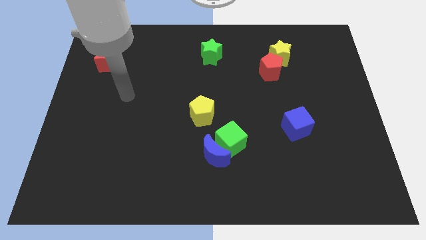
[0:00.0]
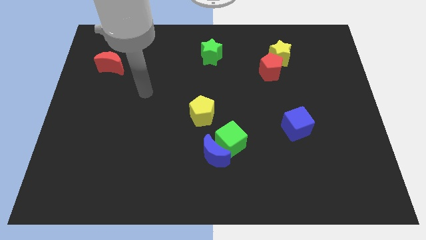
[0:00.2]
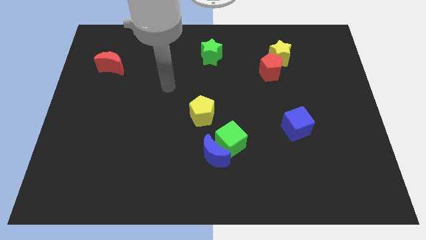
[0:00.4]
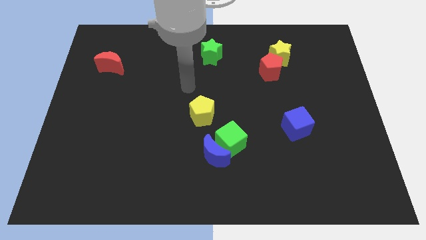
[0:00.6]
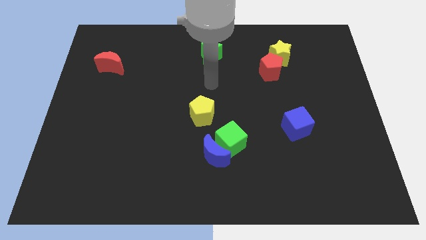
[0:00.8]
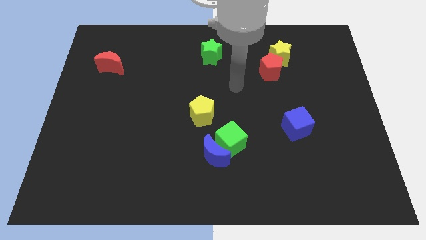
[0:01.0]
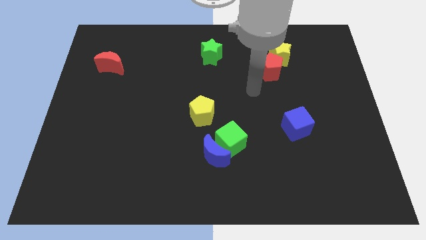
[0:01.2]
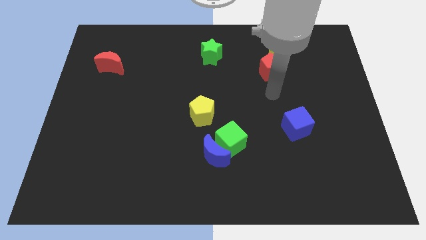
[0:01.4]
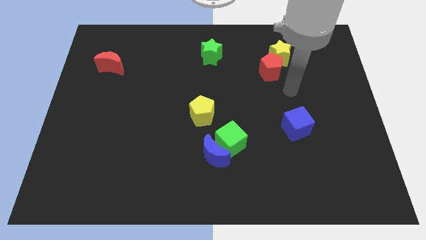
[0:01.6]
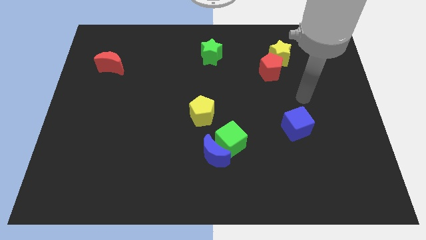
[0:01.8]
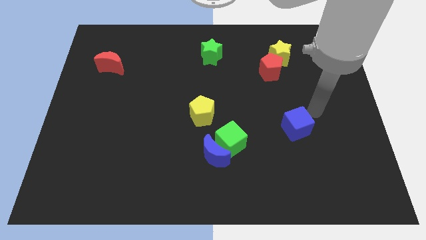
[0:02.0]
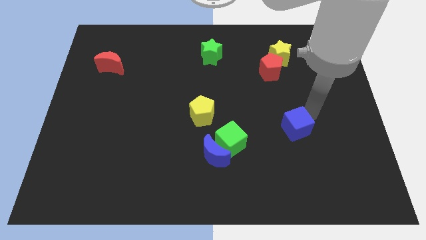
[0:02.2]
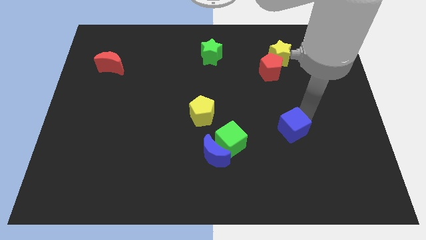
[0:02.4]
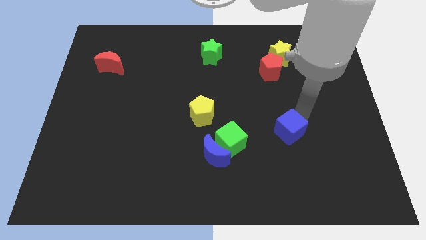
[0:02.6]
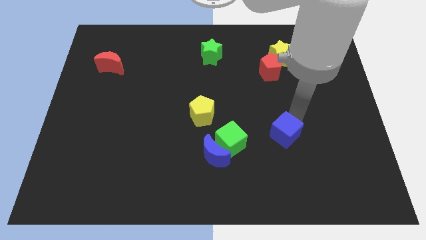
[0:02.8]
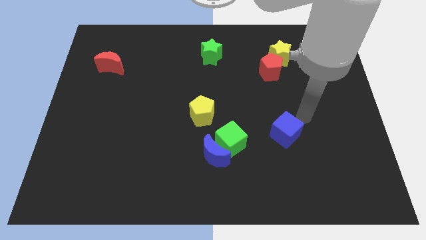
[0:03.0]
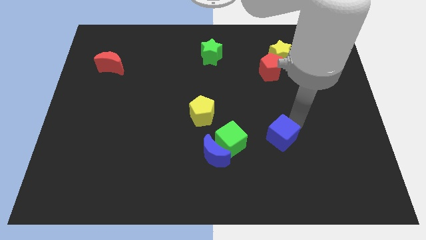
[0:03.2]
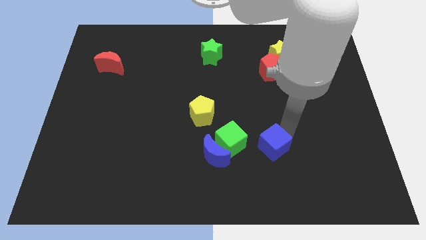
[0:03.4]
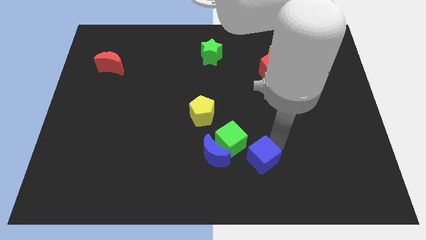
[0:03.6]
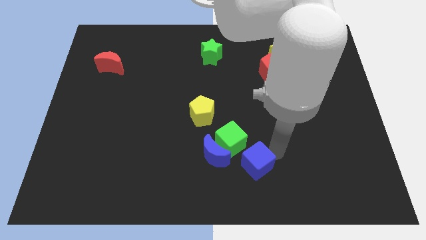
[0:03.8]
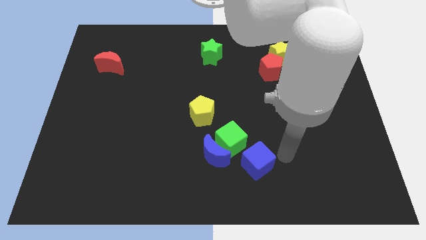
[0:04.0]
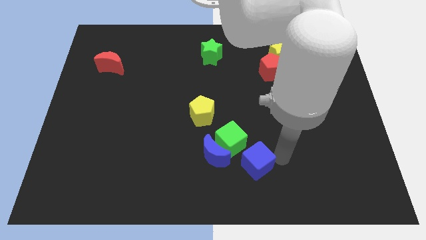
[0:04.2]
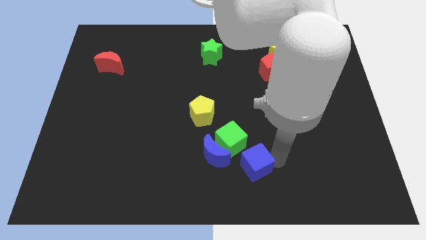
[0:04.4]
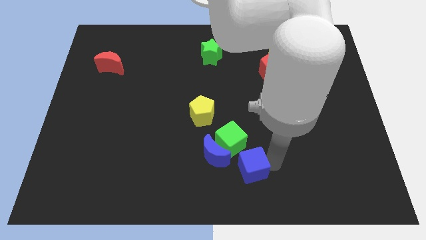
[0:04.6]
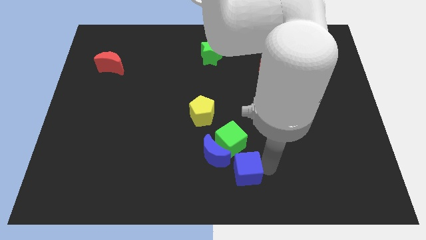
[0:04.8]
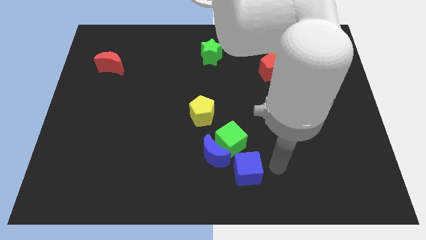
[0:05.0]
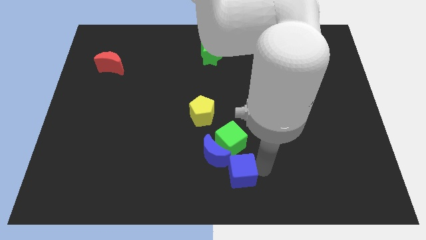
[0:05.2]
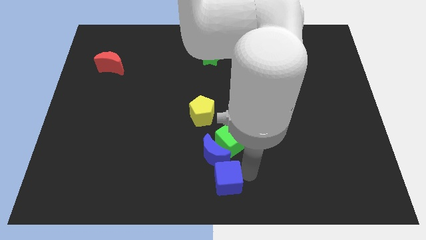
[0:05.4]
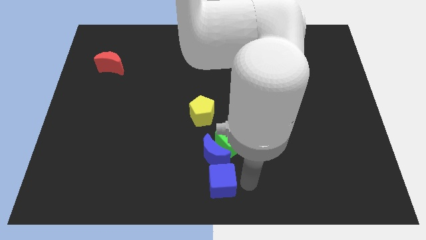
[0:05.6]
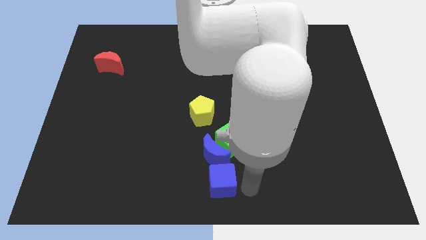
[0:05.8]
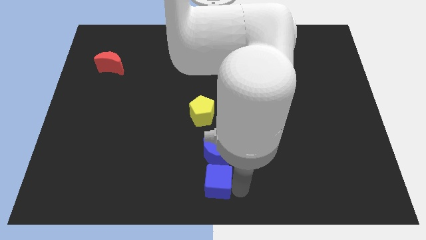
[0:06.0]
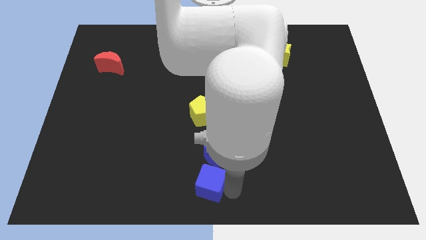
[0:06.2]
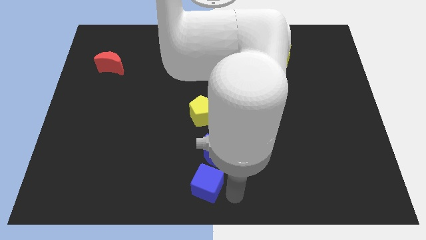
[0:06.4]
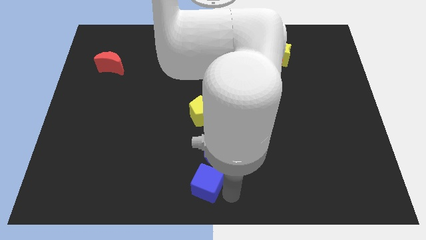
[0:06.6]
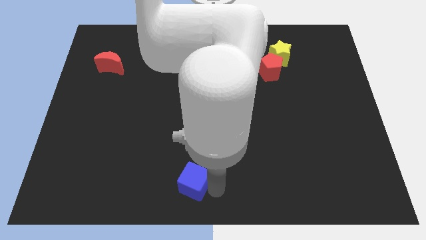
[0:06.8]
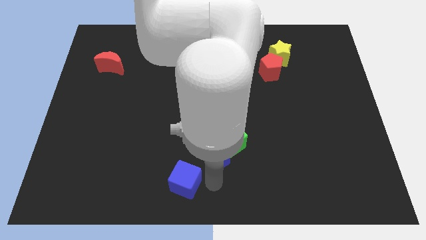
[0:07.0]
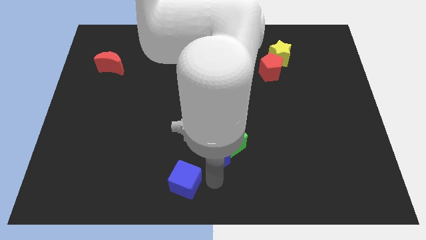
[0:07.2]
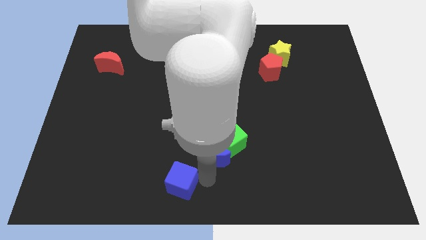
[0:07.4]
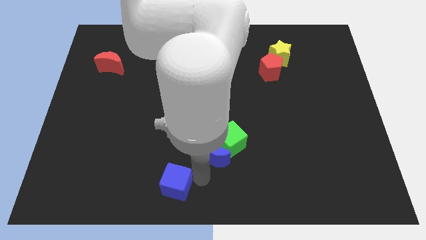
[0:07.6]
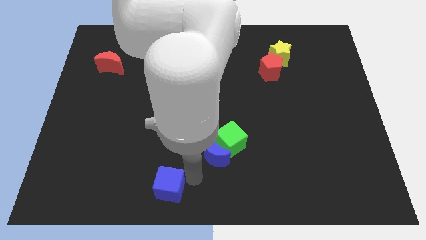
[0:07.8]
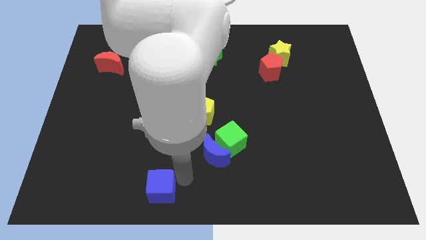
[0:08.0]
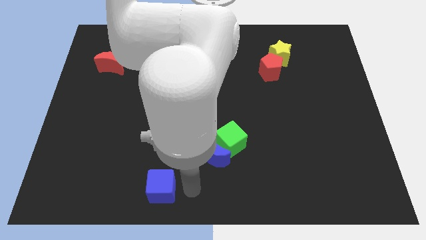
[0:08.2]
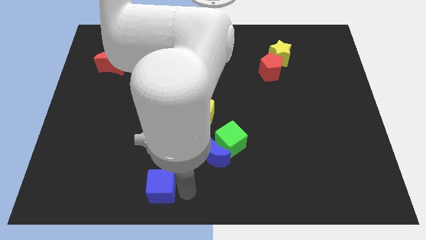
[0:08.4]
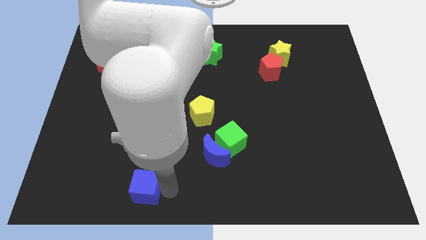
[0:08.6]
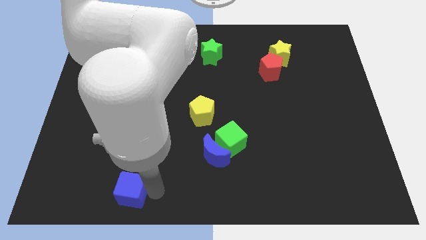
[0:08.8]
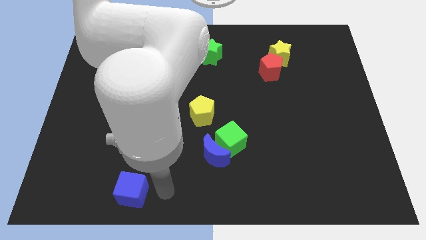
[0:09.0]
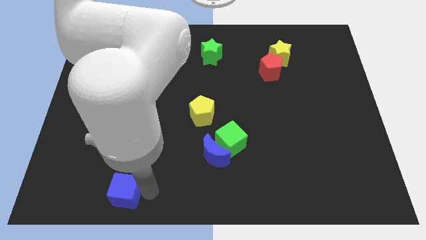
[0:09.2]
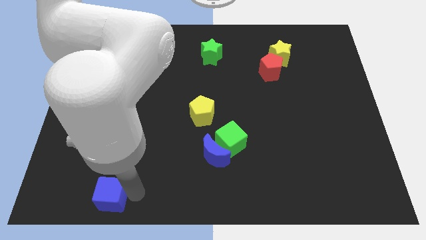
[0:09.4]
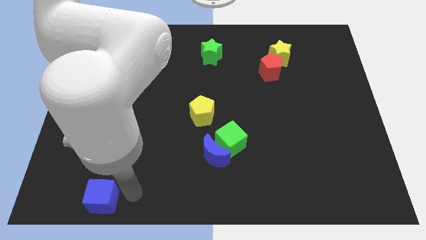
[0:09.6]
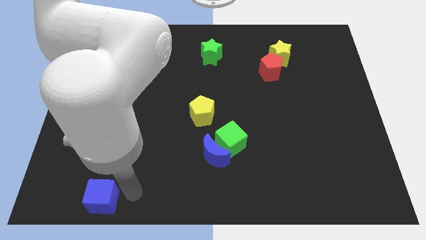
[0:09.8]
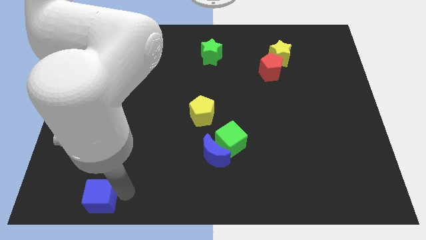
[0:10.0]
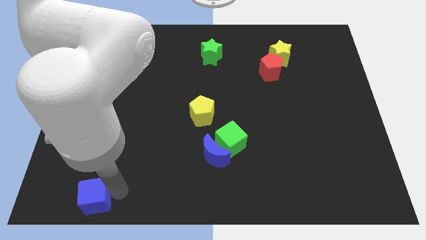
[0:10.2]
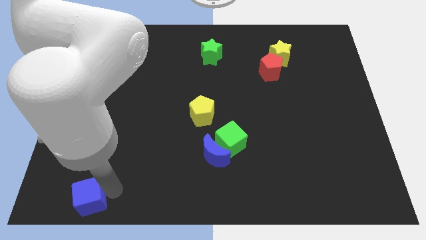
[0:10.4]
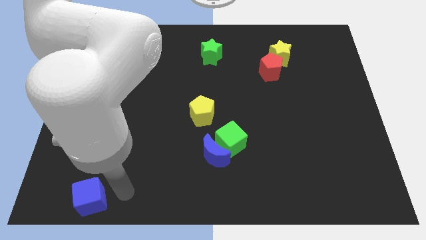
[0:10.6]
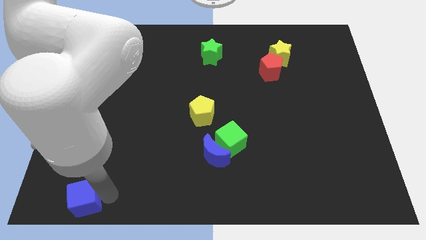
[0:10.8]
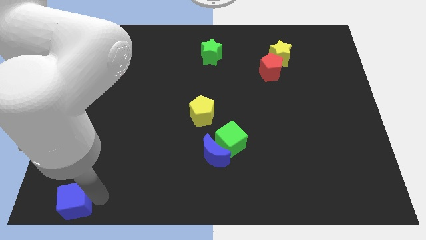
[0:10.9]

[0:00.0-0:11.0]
push the blue cube to the bottom left corner
